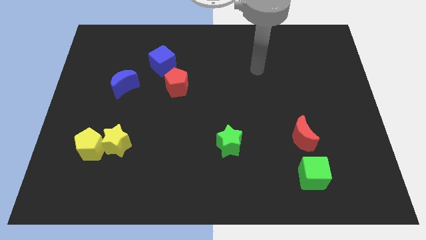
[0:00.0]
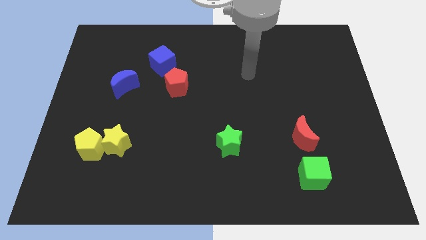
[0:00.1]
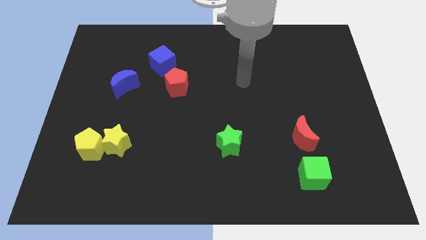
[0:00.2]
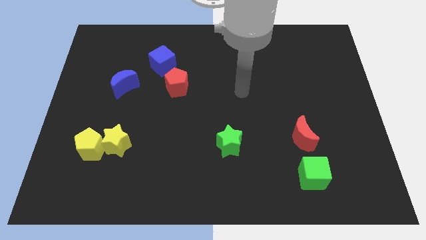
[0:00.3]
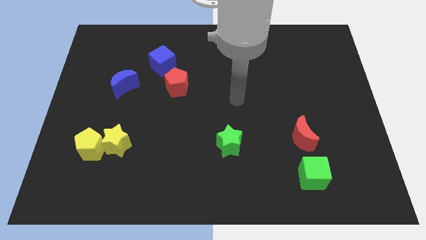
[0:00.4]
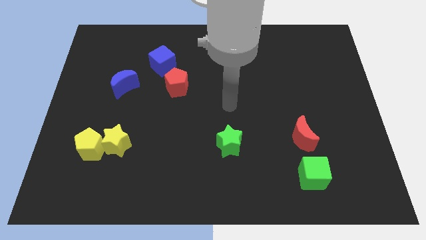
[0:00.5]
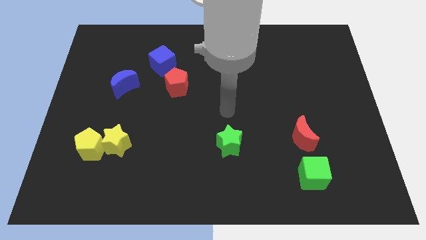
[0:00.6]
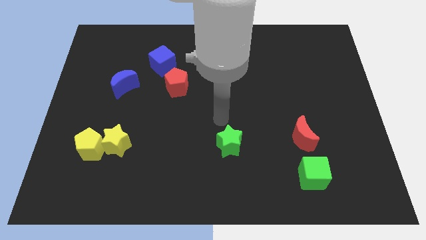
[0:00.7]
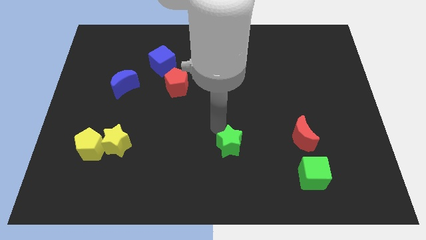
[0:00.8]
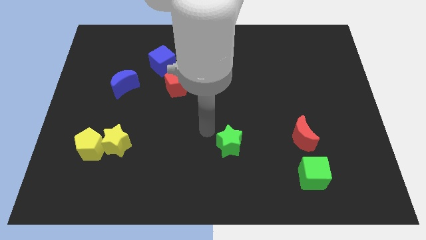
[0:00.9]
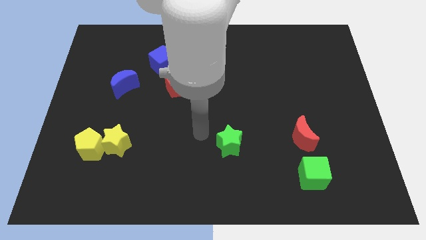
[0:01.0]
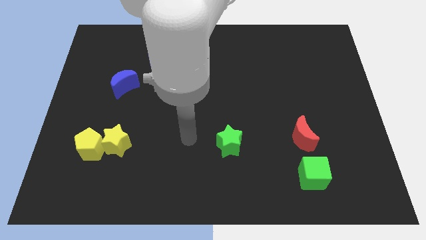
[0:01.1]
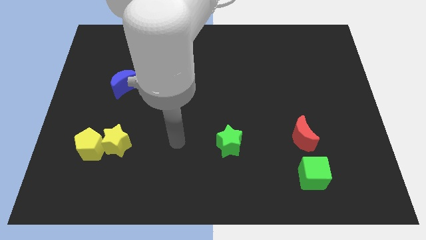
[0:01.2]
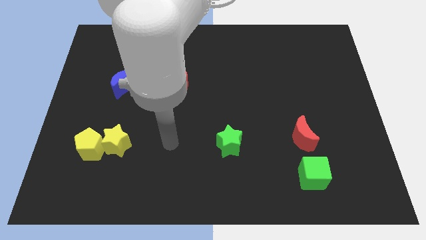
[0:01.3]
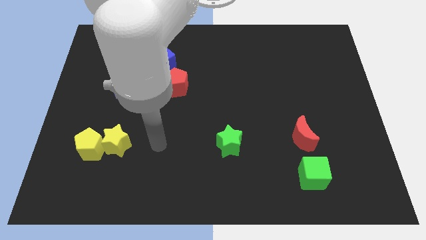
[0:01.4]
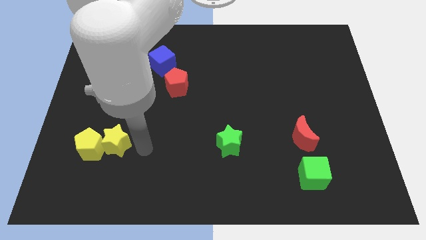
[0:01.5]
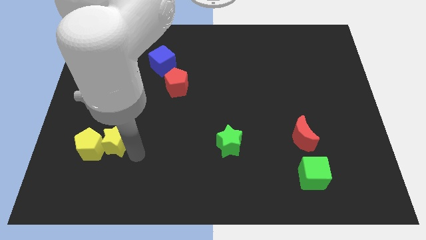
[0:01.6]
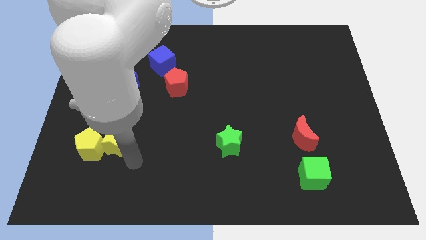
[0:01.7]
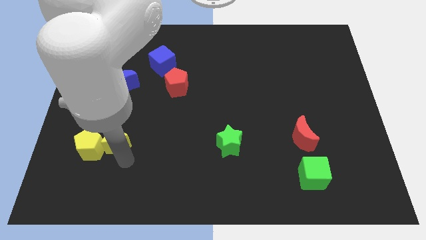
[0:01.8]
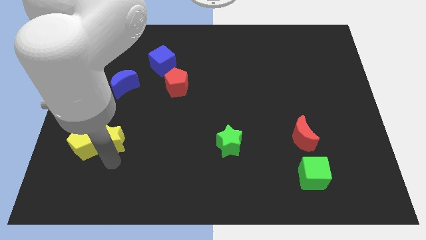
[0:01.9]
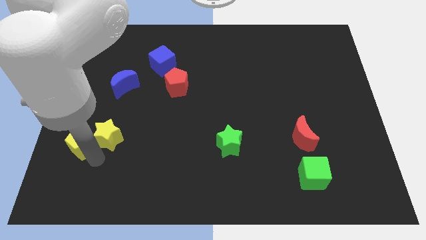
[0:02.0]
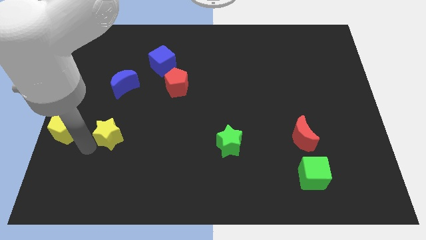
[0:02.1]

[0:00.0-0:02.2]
separate the yellow star from the yellow pentagon

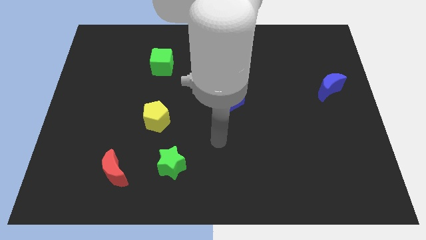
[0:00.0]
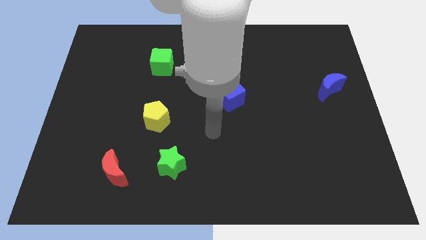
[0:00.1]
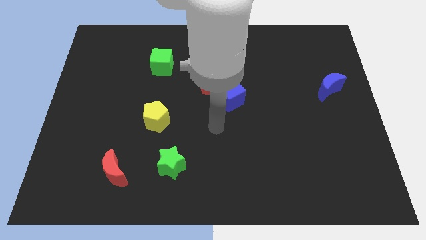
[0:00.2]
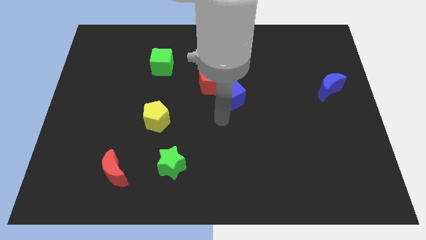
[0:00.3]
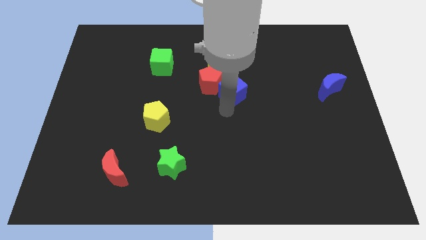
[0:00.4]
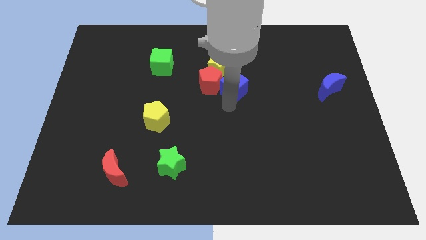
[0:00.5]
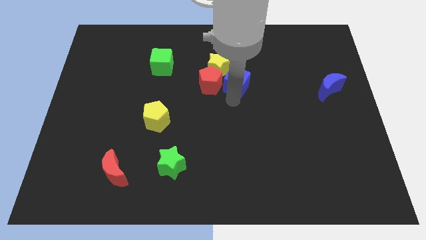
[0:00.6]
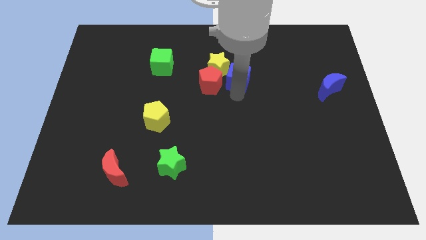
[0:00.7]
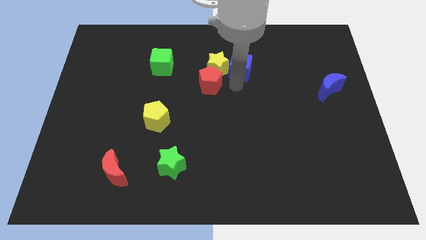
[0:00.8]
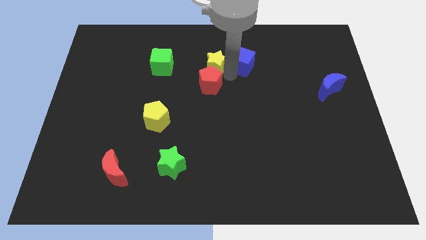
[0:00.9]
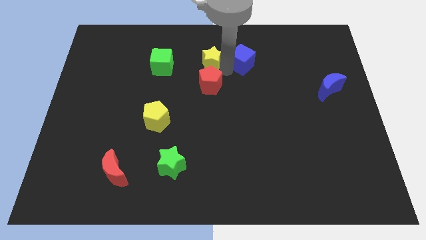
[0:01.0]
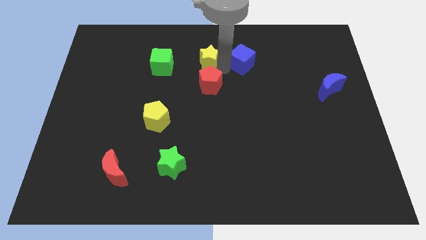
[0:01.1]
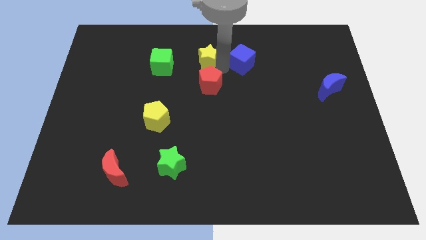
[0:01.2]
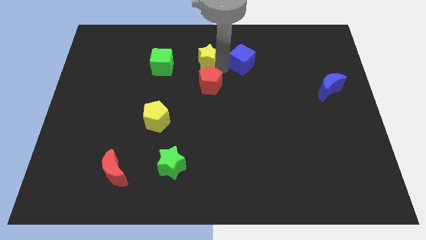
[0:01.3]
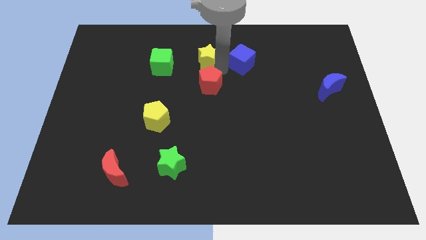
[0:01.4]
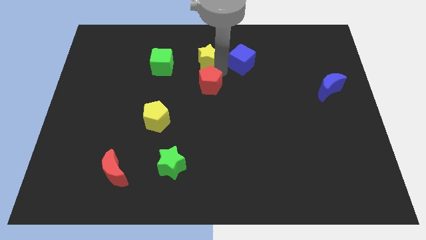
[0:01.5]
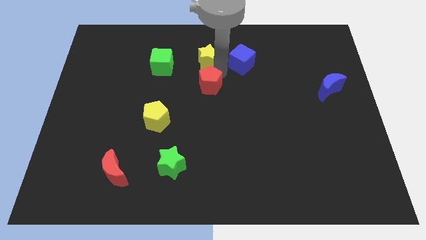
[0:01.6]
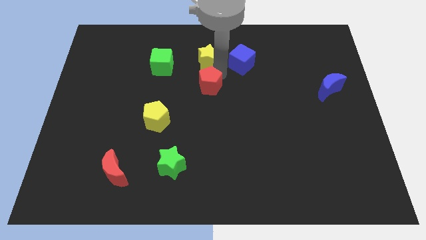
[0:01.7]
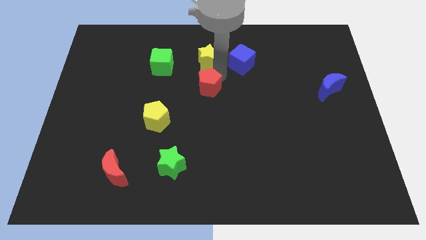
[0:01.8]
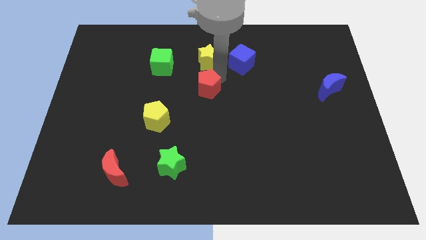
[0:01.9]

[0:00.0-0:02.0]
pull the red pentagon apart from the yellow star and blue cube

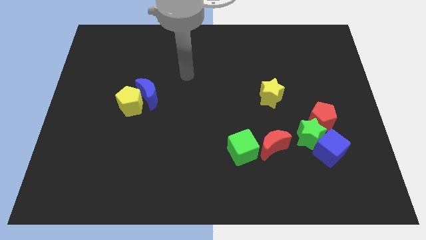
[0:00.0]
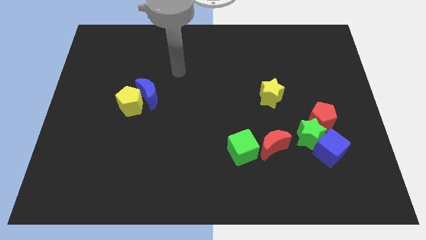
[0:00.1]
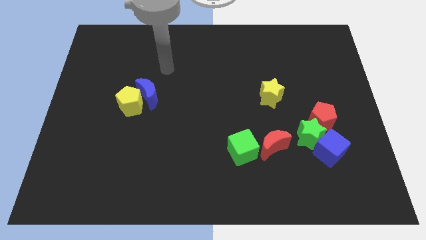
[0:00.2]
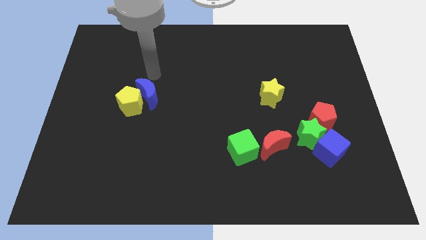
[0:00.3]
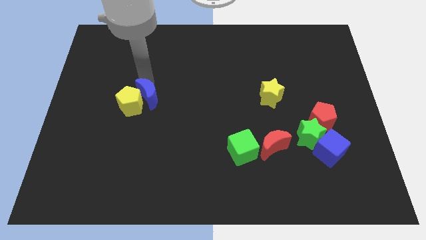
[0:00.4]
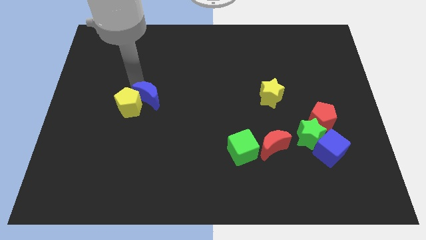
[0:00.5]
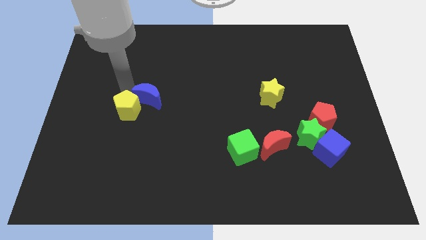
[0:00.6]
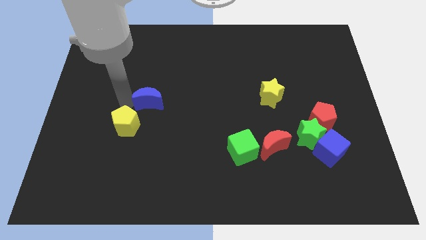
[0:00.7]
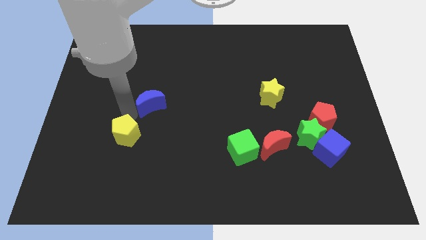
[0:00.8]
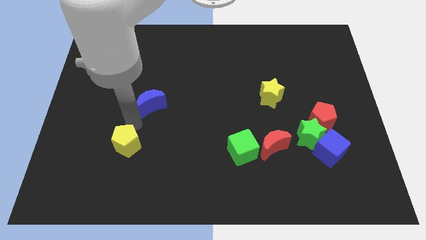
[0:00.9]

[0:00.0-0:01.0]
move the blue moon away from the yellow pentagon

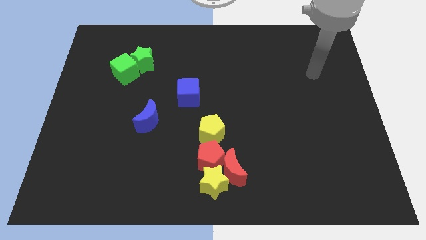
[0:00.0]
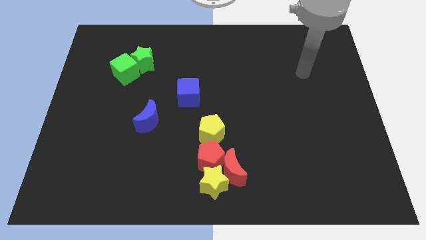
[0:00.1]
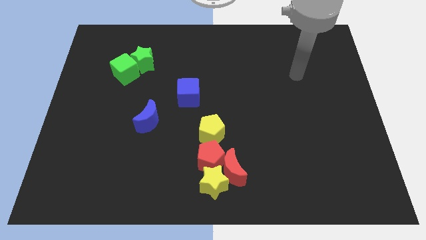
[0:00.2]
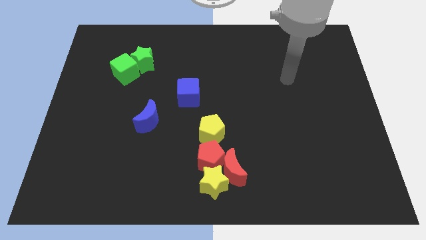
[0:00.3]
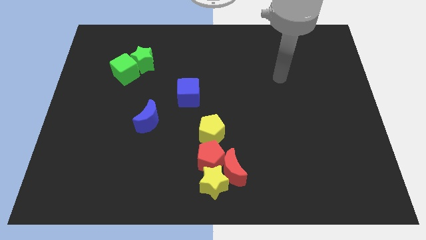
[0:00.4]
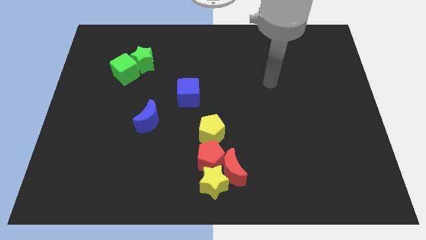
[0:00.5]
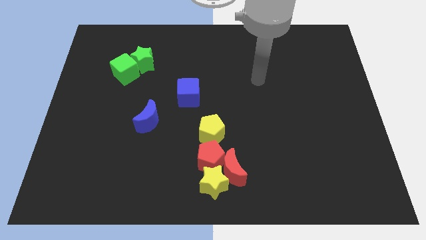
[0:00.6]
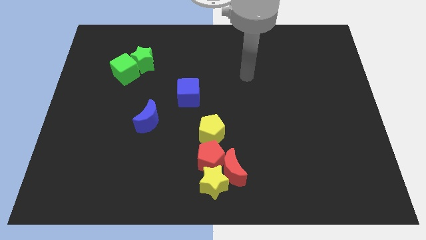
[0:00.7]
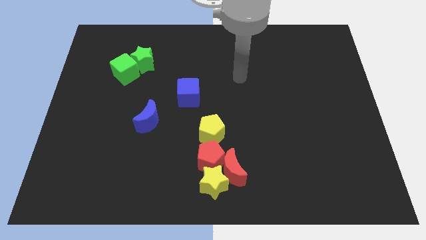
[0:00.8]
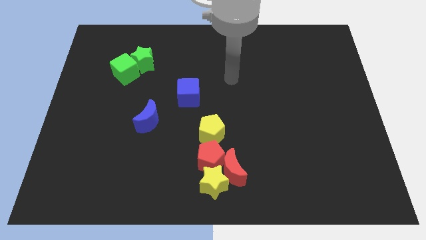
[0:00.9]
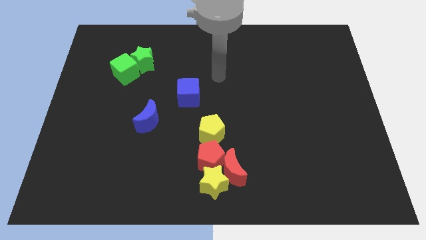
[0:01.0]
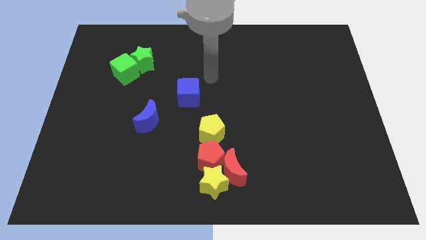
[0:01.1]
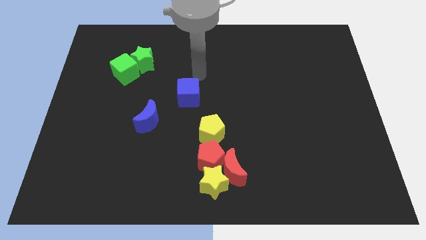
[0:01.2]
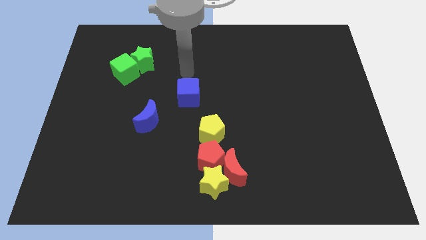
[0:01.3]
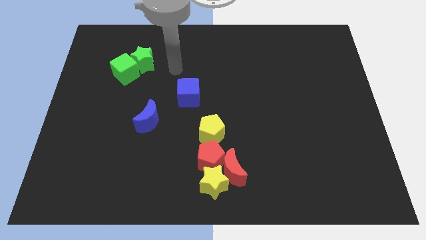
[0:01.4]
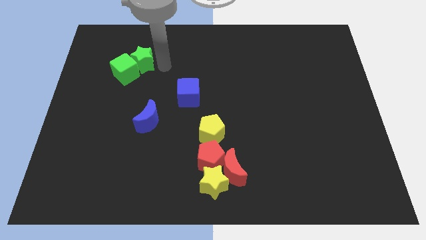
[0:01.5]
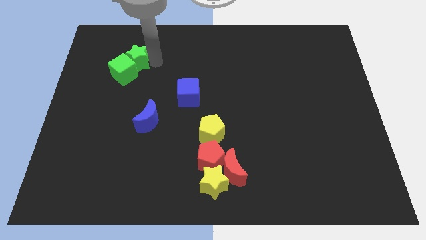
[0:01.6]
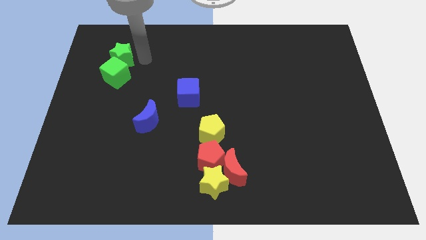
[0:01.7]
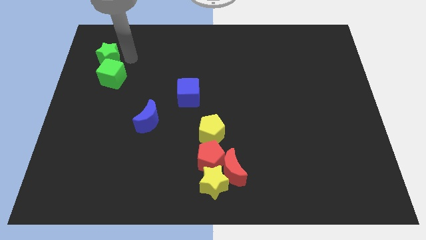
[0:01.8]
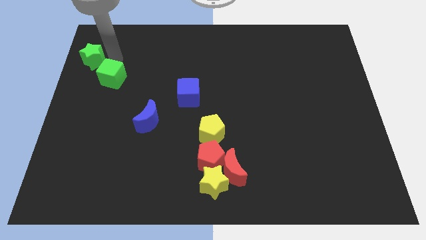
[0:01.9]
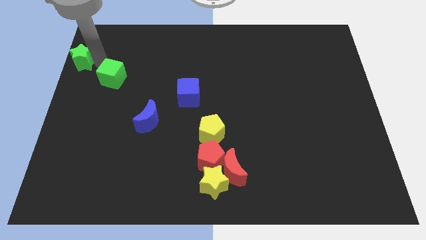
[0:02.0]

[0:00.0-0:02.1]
separate the green cube from the green star

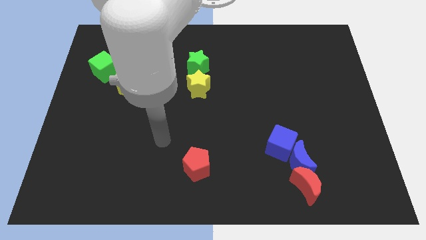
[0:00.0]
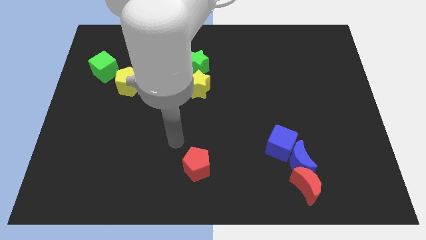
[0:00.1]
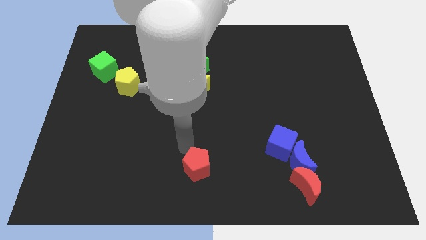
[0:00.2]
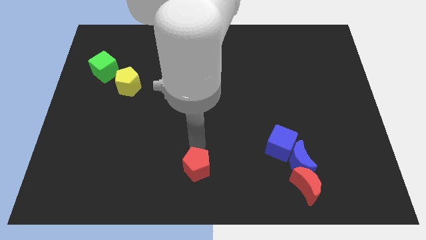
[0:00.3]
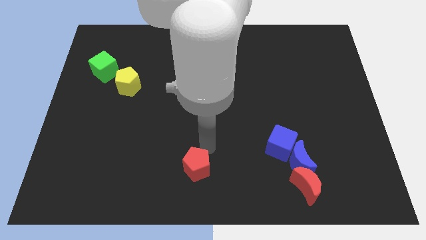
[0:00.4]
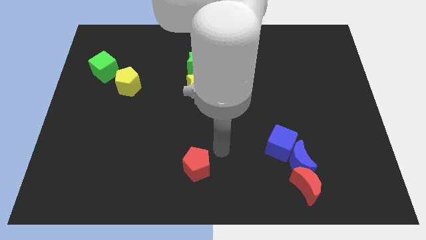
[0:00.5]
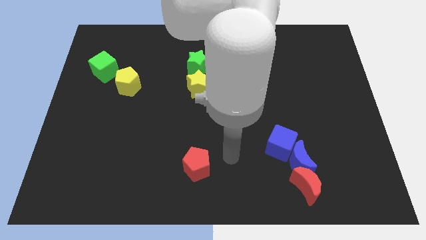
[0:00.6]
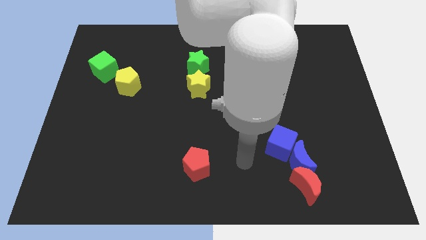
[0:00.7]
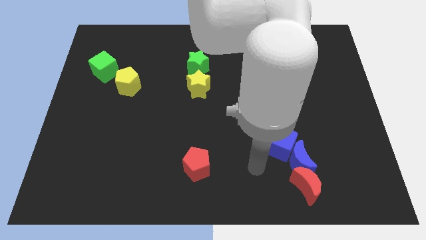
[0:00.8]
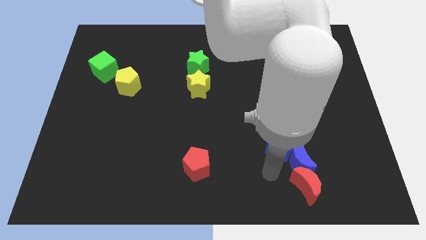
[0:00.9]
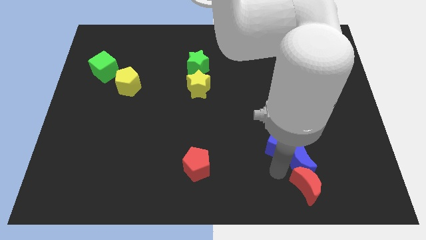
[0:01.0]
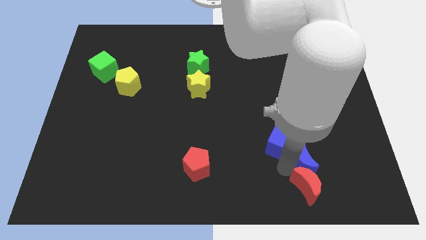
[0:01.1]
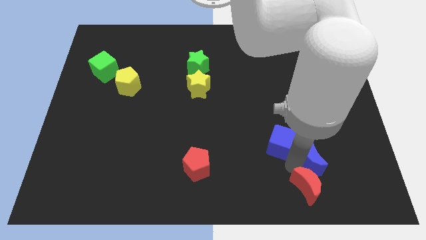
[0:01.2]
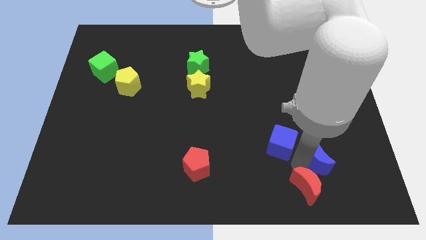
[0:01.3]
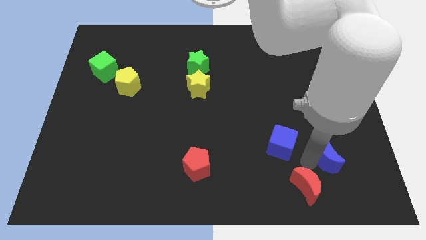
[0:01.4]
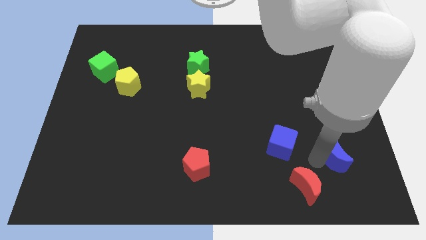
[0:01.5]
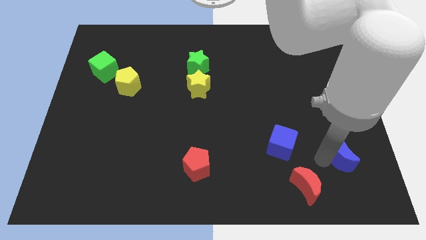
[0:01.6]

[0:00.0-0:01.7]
move the blue moon away from the red moon and blue cube

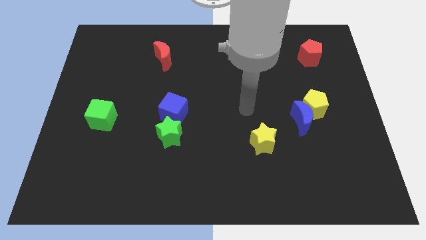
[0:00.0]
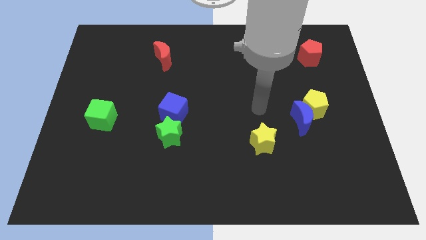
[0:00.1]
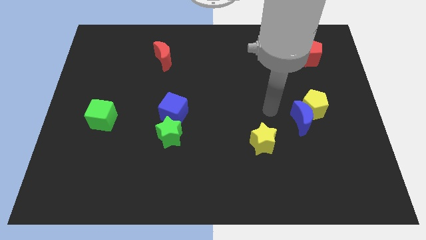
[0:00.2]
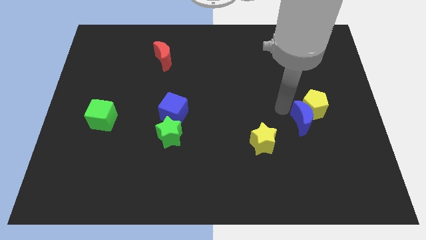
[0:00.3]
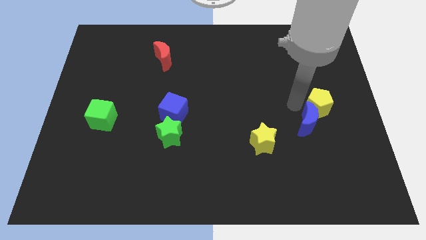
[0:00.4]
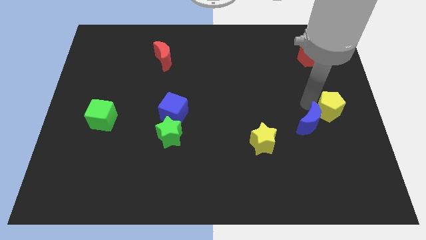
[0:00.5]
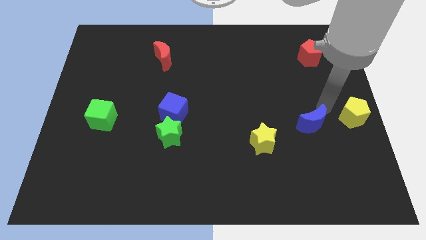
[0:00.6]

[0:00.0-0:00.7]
pull the blue moon apart from the yellow pentagon
